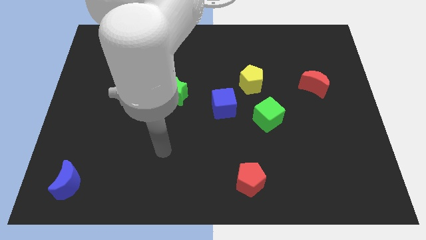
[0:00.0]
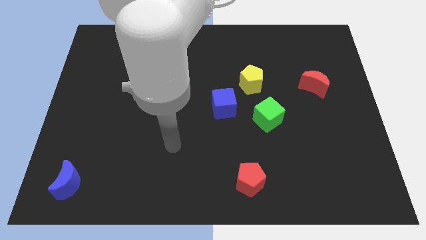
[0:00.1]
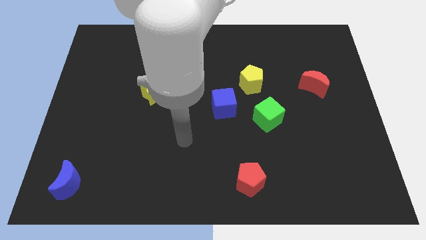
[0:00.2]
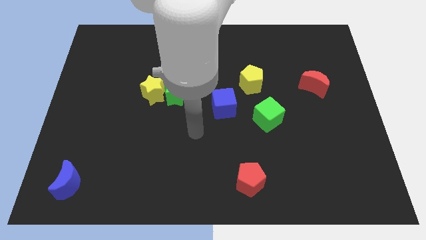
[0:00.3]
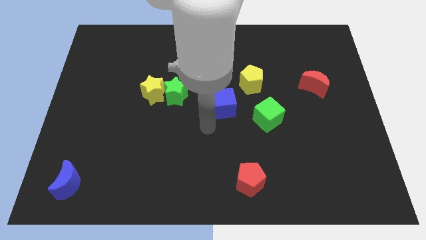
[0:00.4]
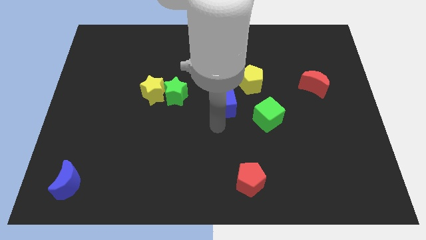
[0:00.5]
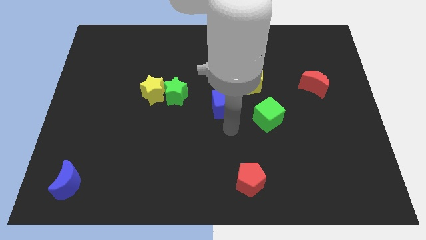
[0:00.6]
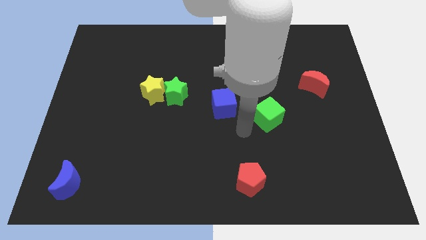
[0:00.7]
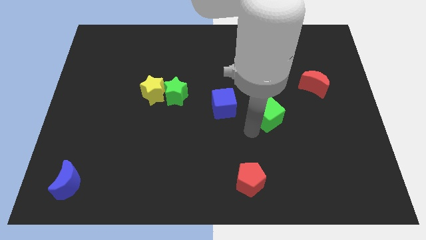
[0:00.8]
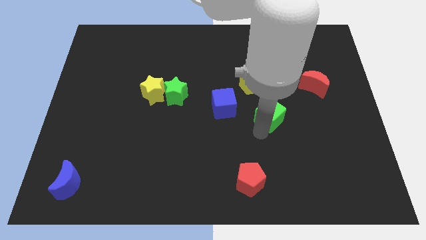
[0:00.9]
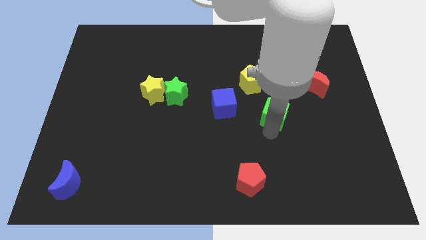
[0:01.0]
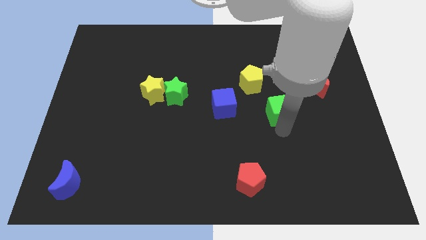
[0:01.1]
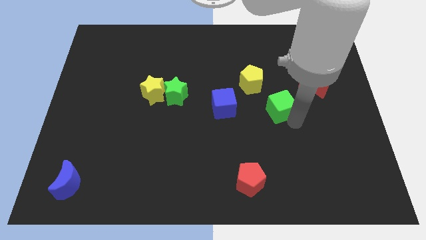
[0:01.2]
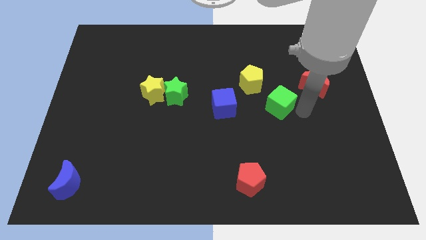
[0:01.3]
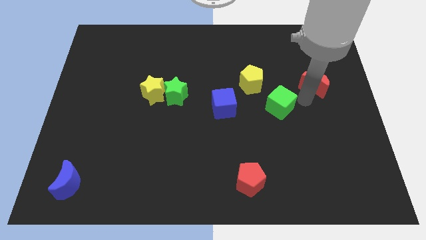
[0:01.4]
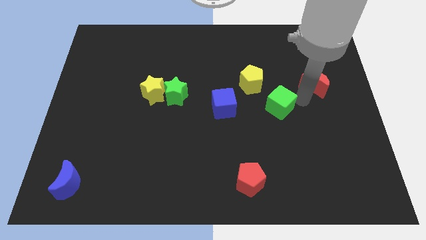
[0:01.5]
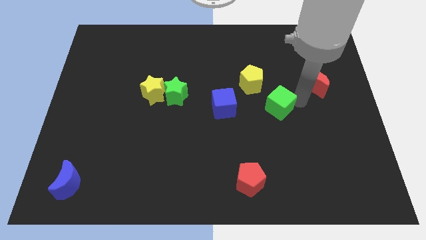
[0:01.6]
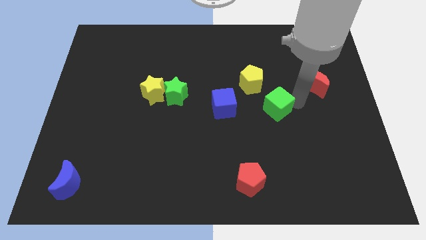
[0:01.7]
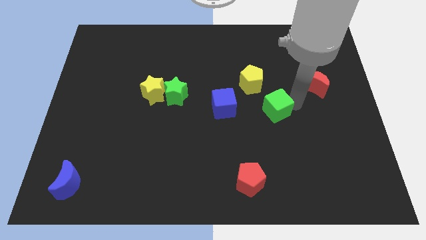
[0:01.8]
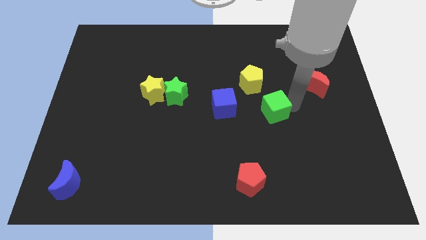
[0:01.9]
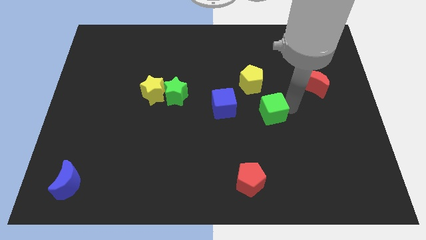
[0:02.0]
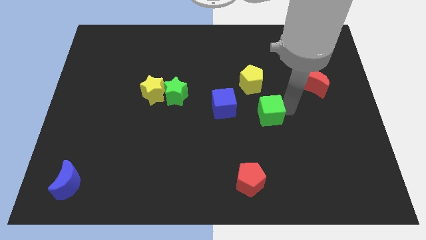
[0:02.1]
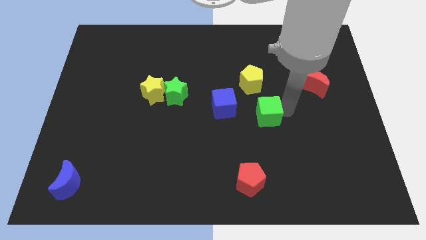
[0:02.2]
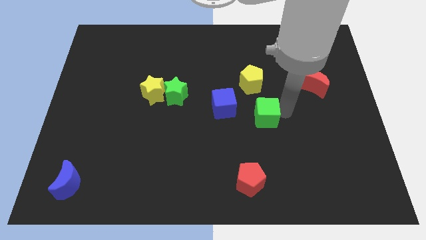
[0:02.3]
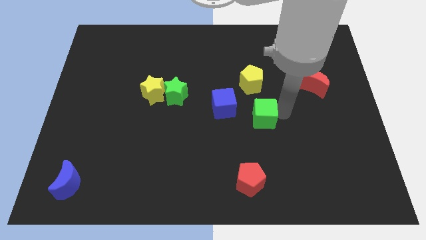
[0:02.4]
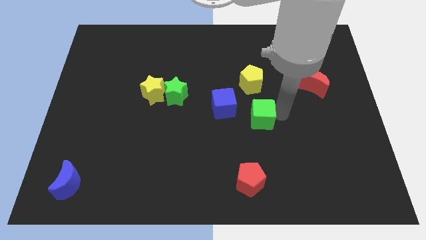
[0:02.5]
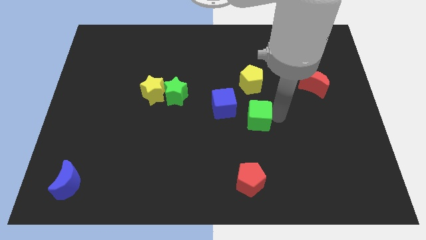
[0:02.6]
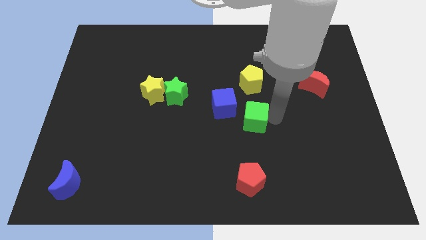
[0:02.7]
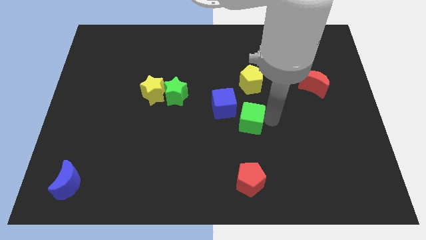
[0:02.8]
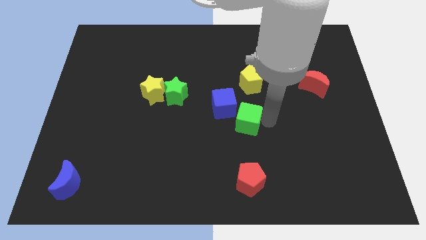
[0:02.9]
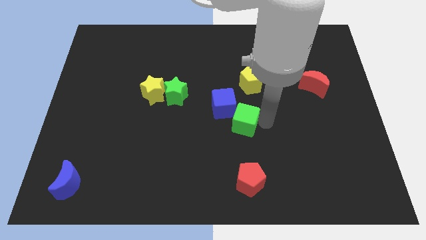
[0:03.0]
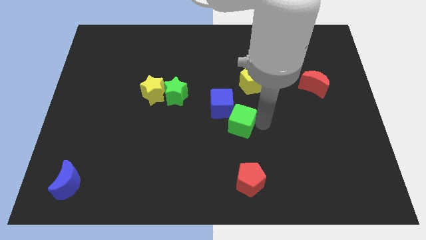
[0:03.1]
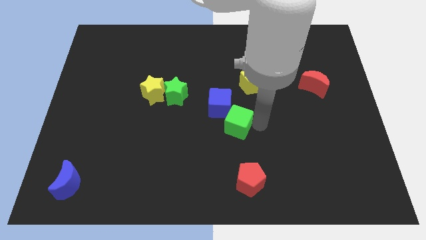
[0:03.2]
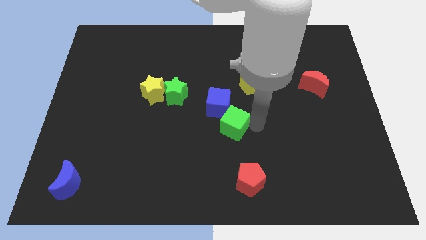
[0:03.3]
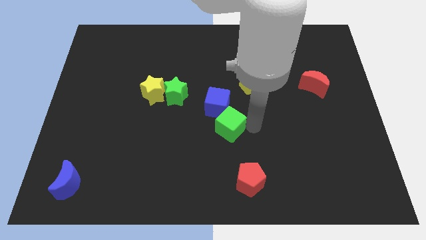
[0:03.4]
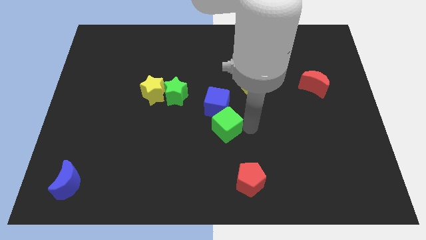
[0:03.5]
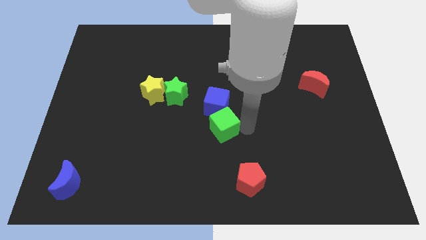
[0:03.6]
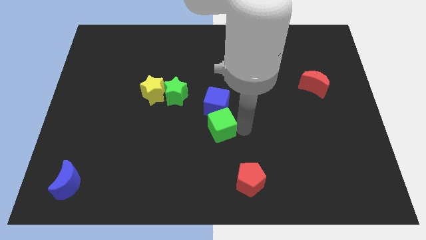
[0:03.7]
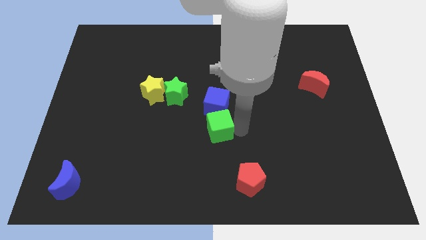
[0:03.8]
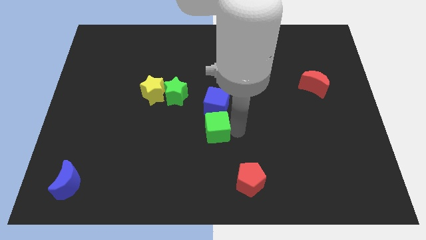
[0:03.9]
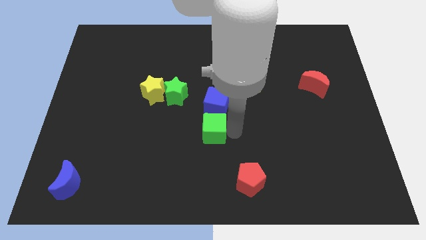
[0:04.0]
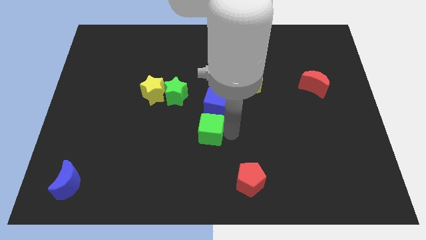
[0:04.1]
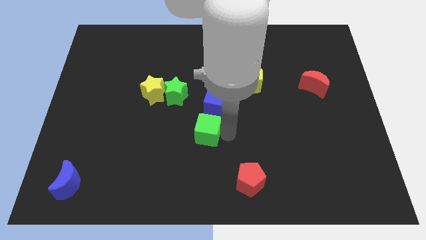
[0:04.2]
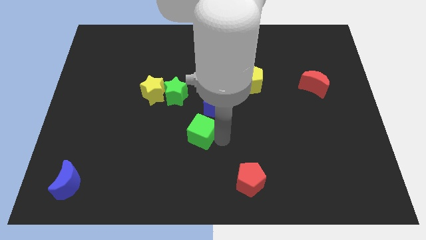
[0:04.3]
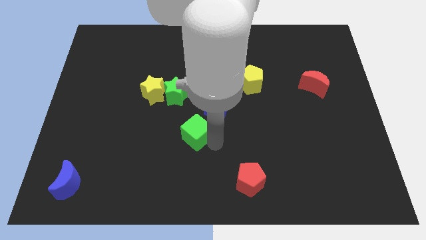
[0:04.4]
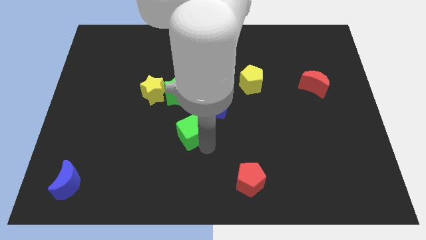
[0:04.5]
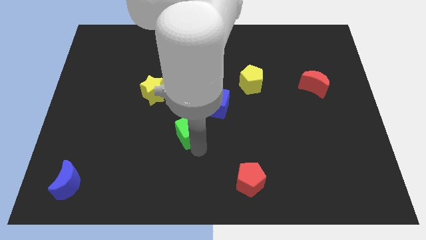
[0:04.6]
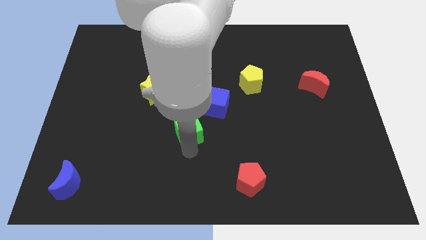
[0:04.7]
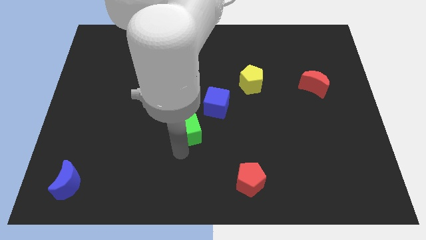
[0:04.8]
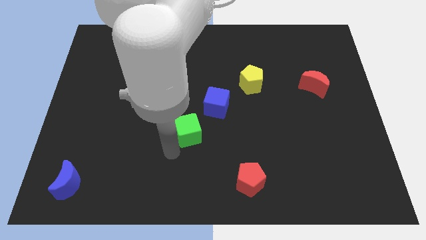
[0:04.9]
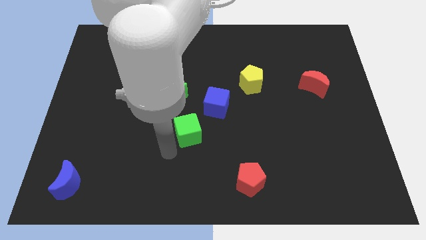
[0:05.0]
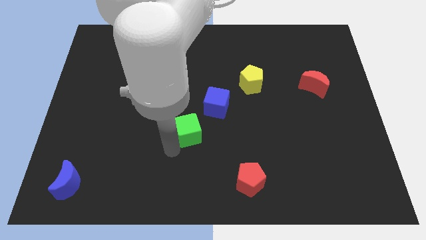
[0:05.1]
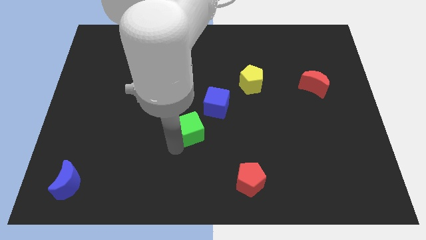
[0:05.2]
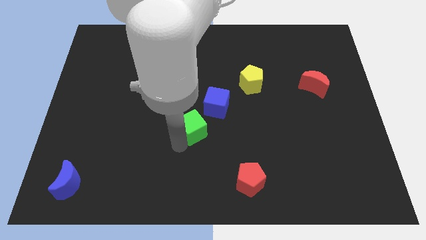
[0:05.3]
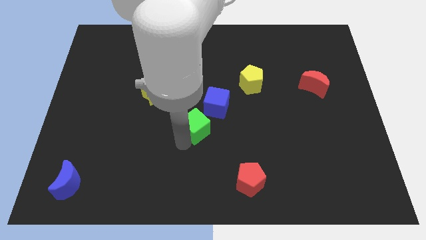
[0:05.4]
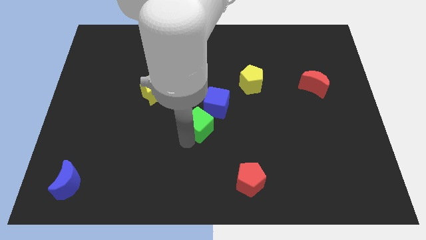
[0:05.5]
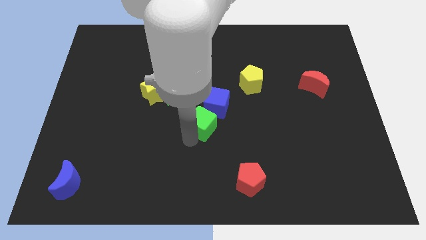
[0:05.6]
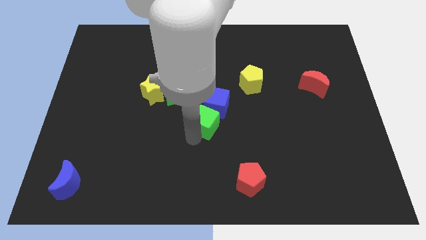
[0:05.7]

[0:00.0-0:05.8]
move the green cube to the blue cube

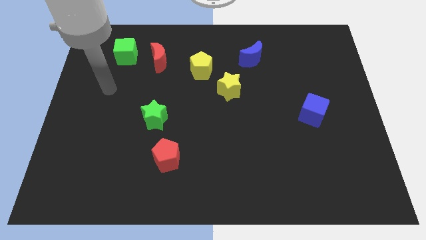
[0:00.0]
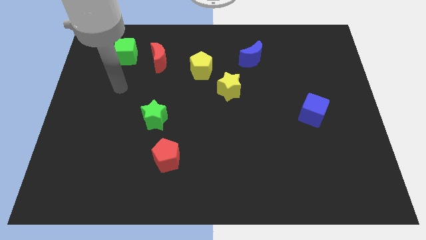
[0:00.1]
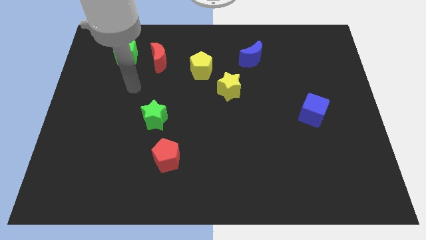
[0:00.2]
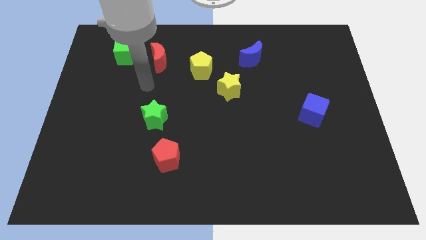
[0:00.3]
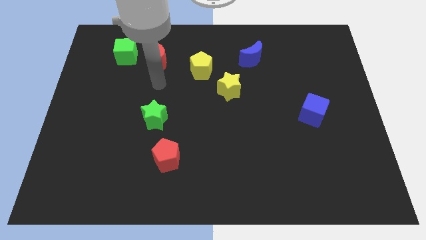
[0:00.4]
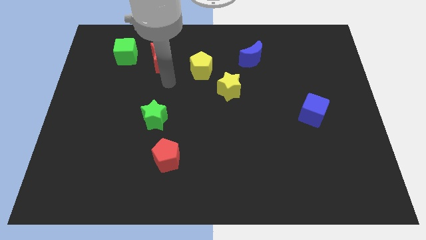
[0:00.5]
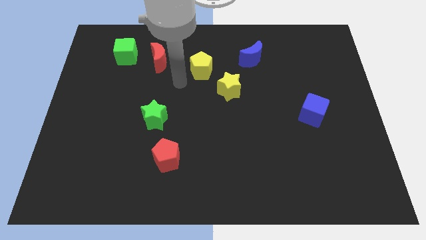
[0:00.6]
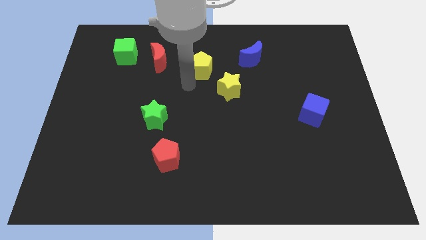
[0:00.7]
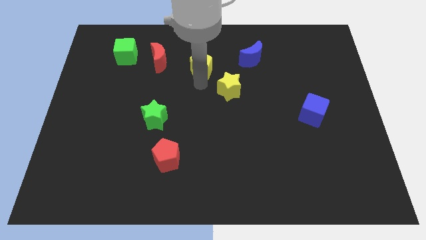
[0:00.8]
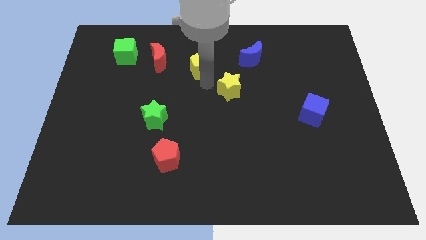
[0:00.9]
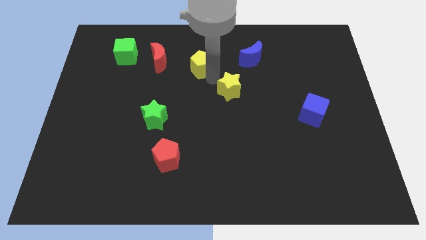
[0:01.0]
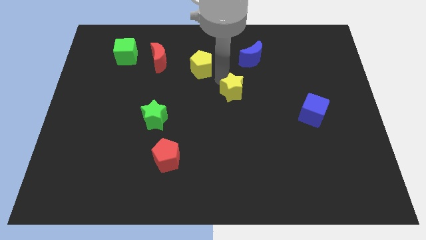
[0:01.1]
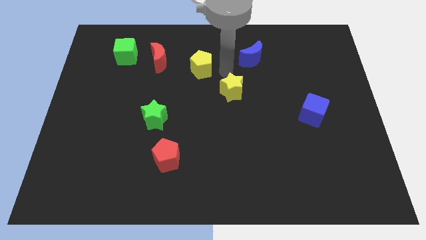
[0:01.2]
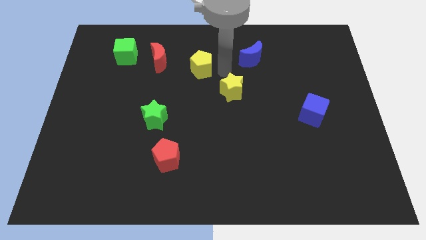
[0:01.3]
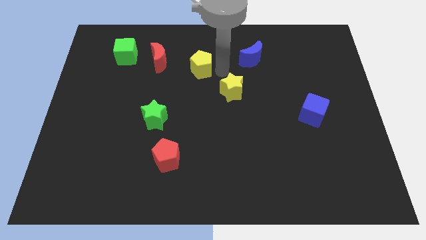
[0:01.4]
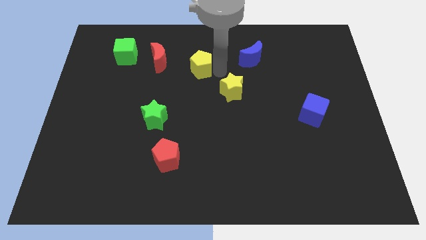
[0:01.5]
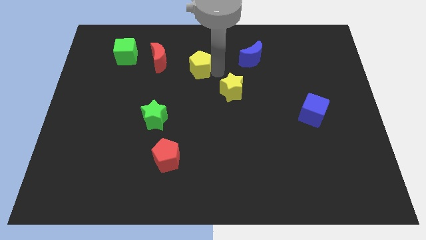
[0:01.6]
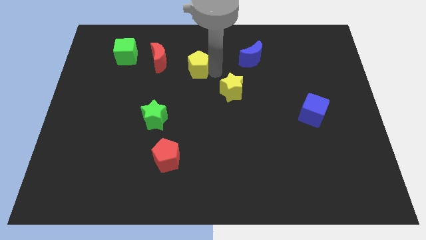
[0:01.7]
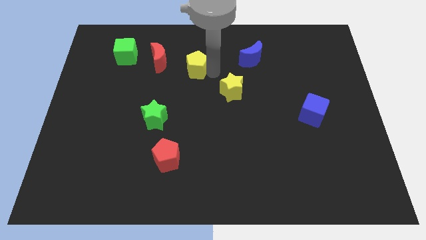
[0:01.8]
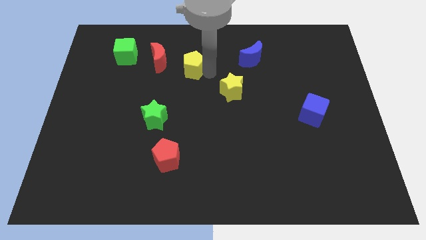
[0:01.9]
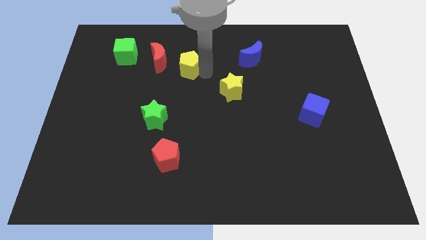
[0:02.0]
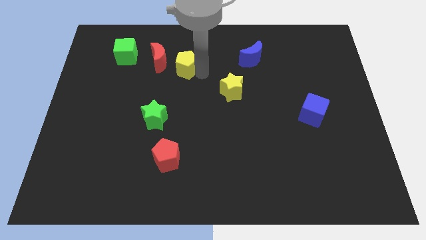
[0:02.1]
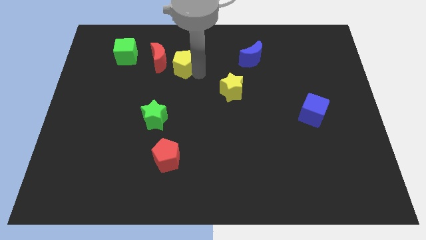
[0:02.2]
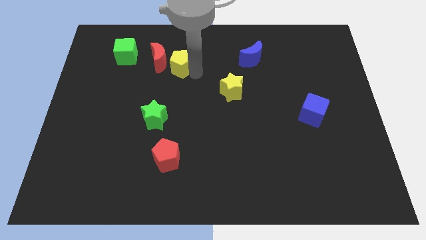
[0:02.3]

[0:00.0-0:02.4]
put the yellow pentagon next to the red moon
